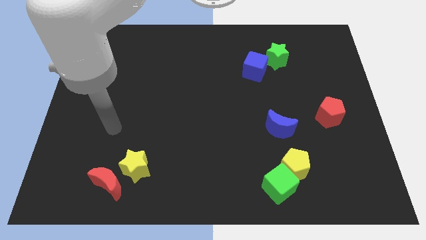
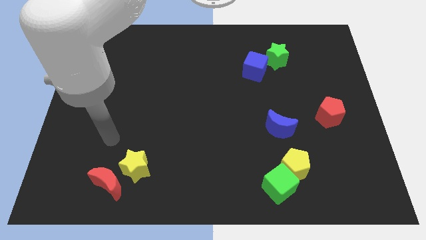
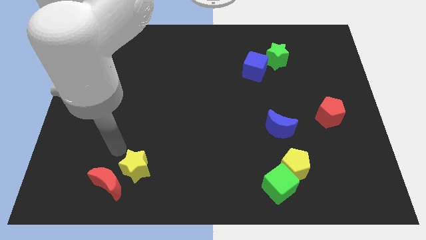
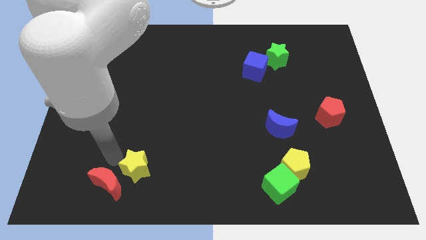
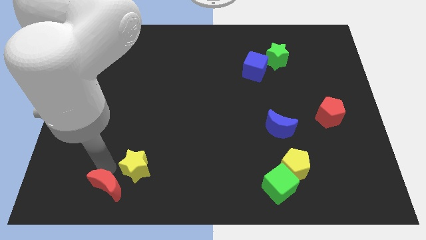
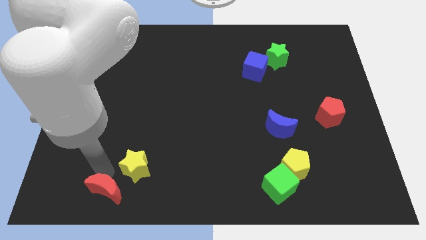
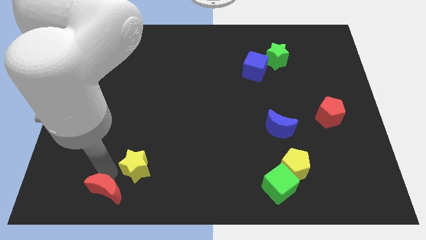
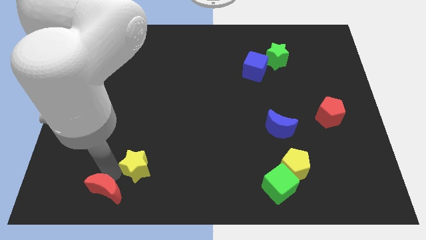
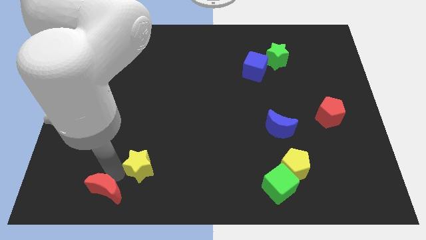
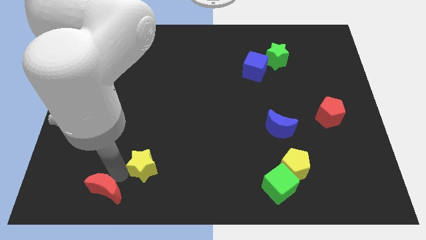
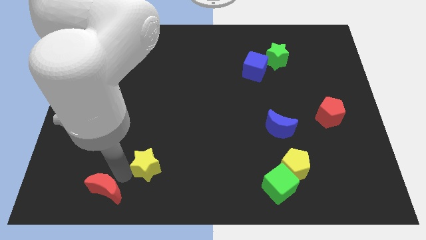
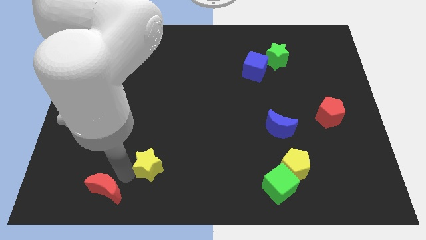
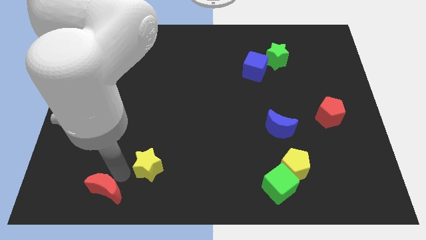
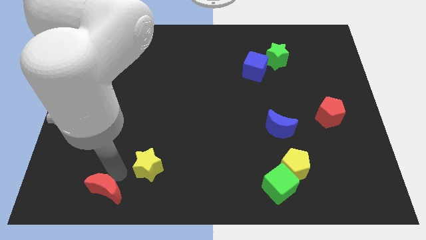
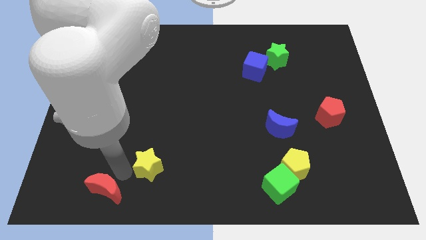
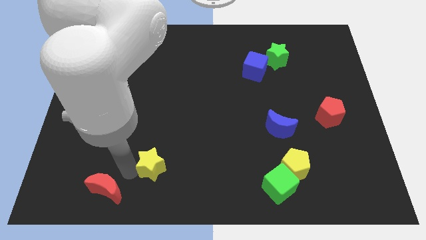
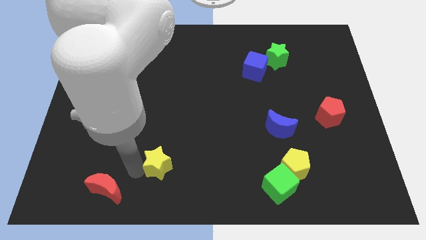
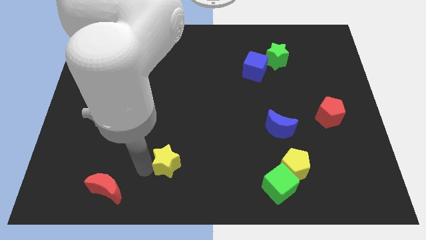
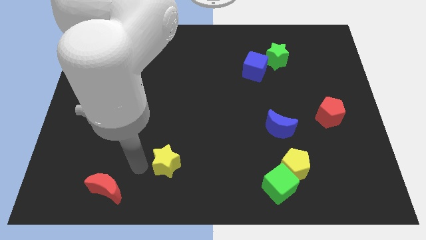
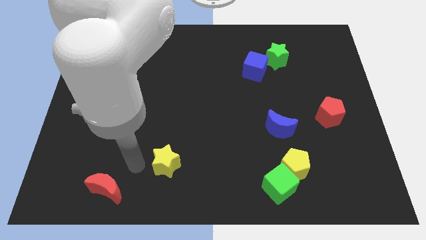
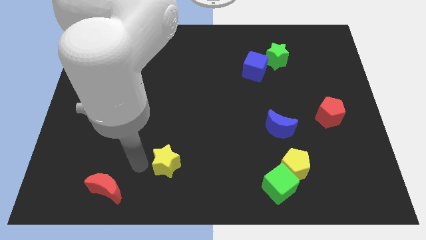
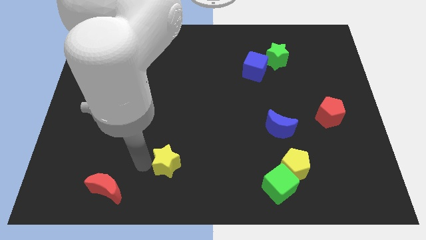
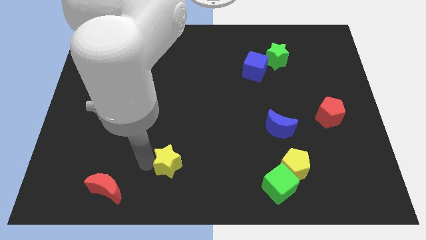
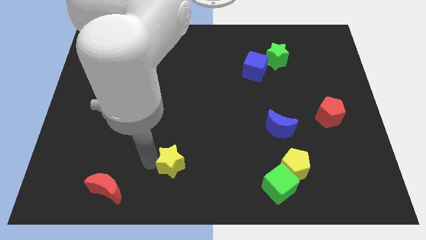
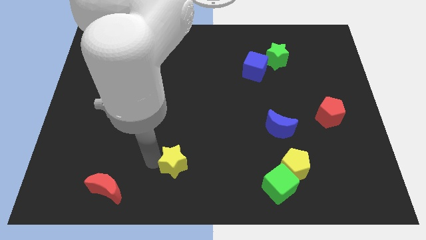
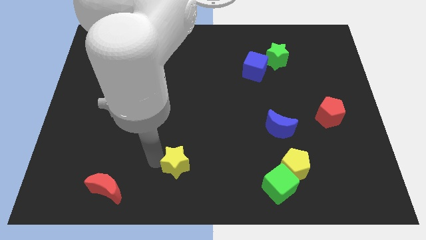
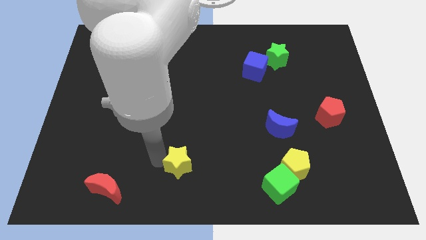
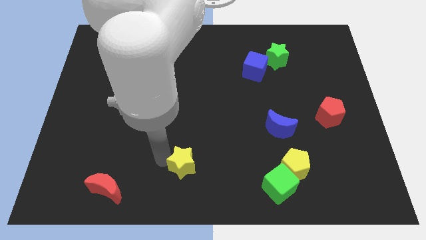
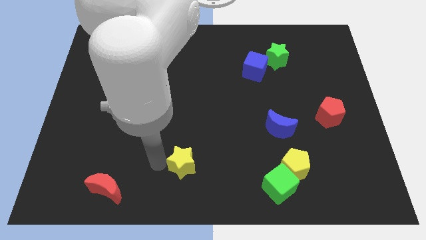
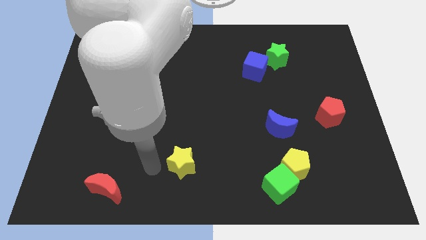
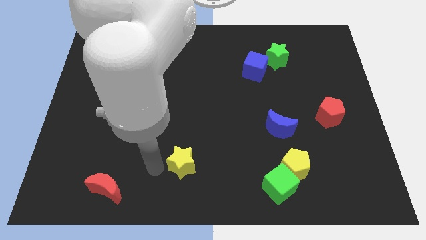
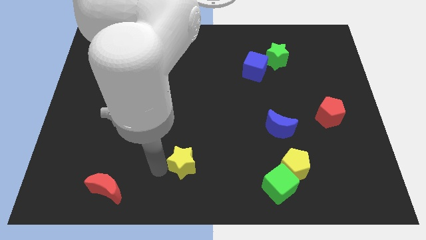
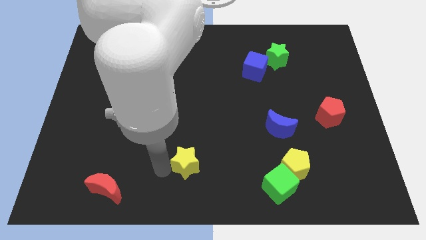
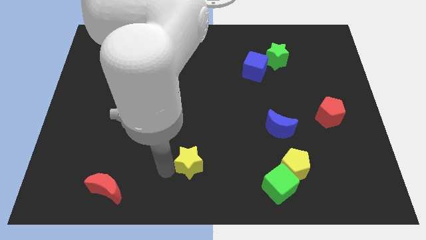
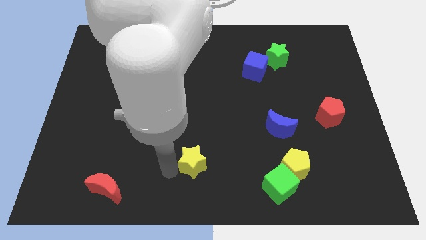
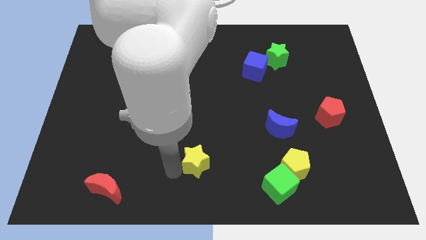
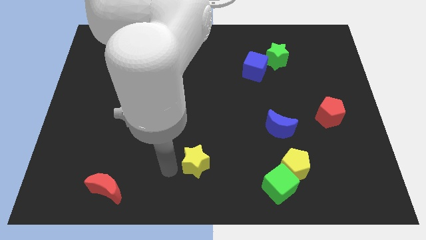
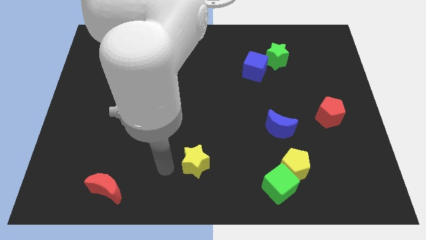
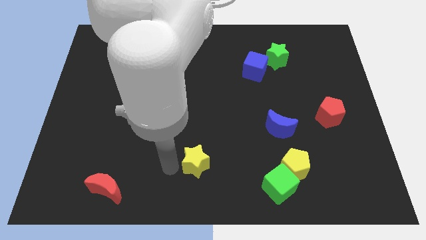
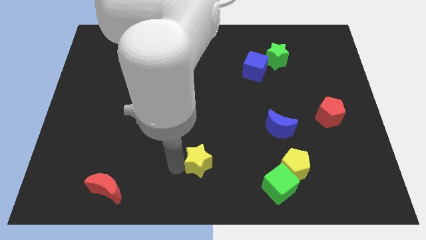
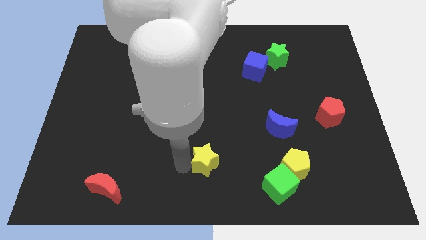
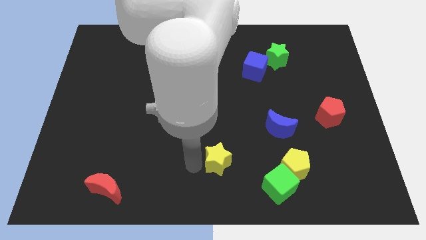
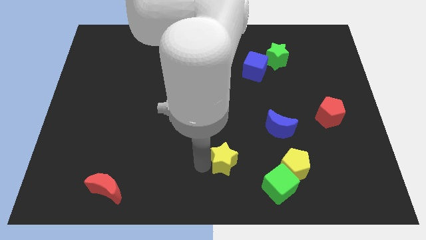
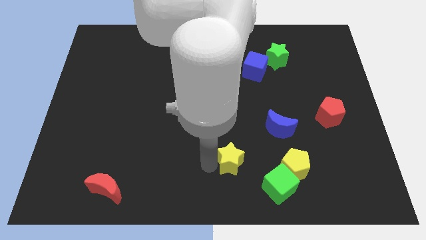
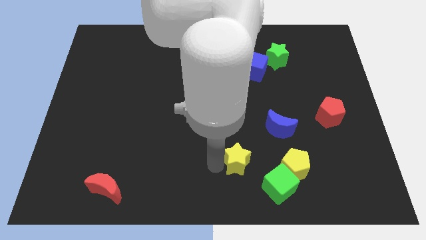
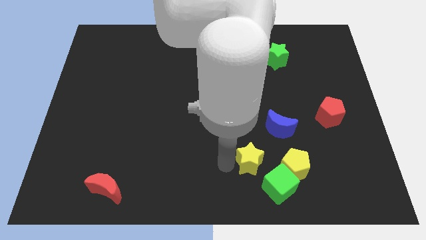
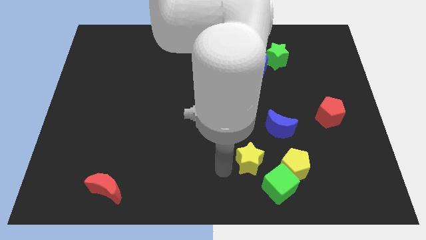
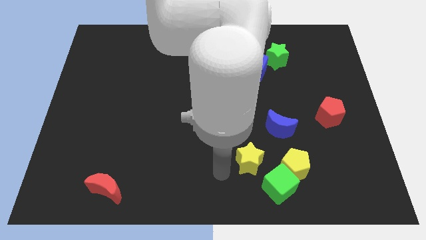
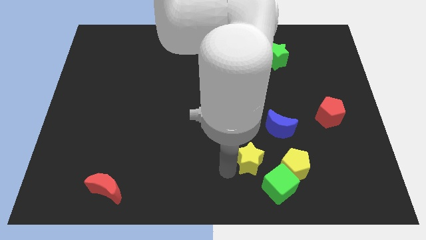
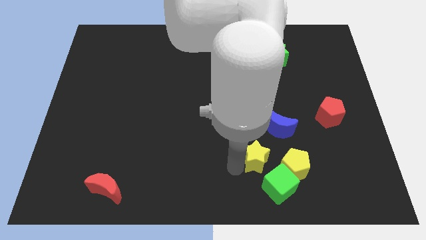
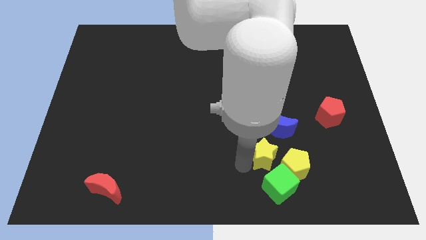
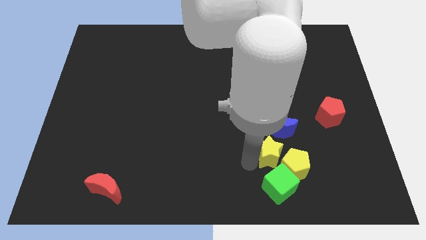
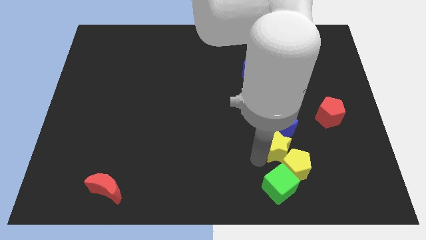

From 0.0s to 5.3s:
put the yellow star to the bottom right side of the blue moon

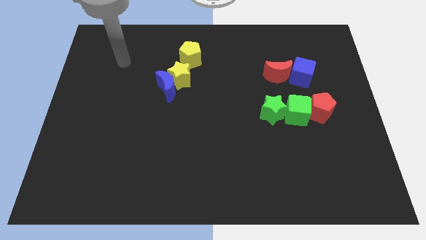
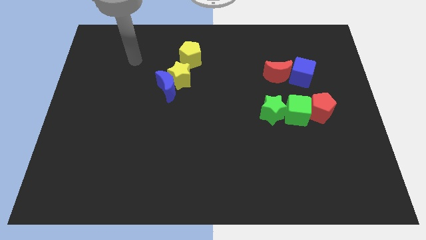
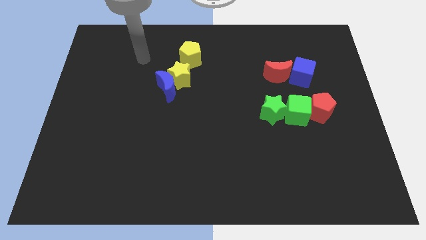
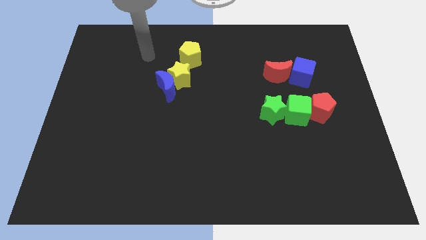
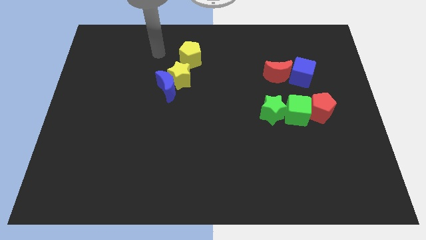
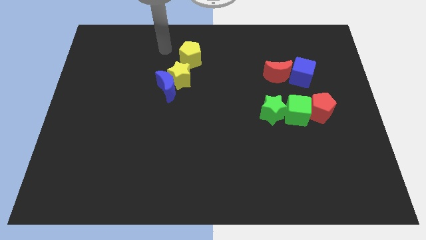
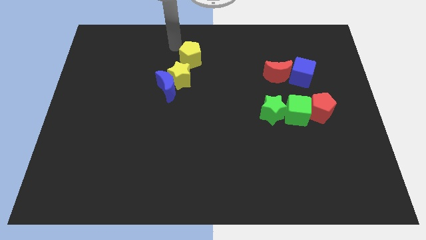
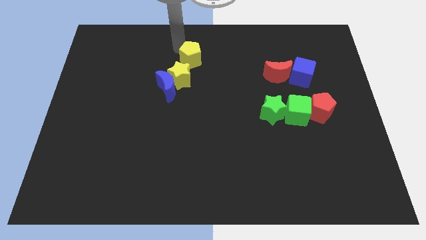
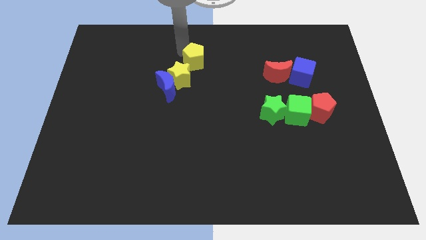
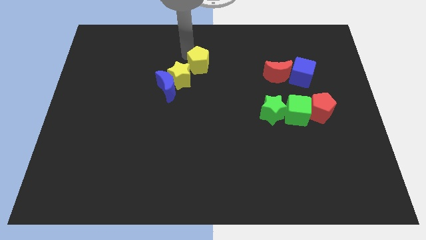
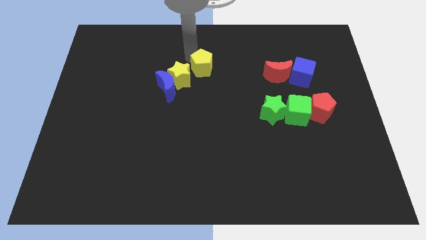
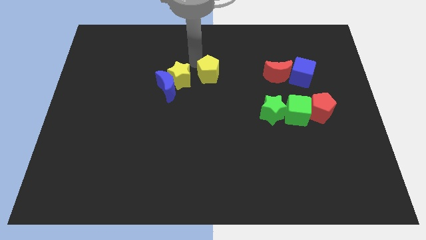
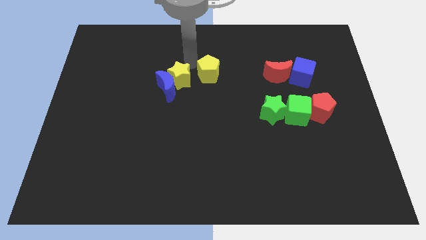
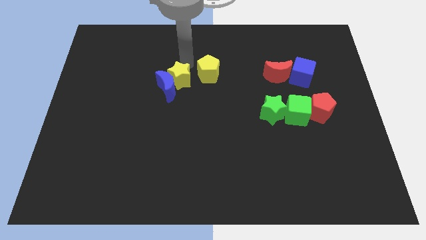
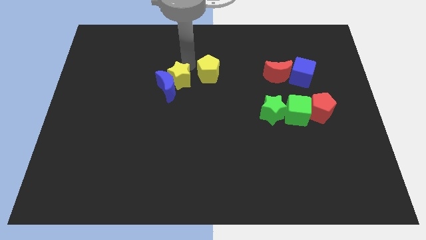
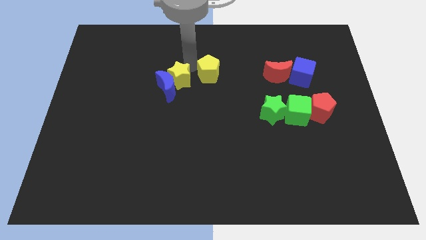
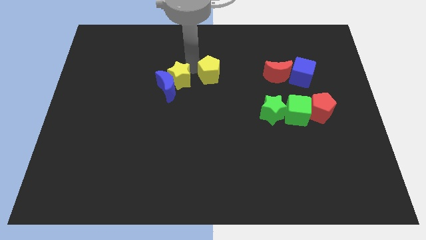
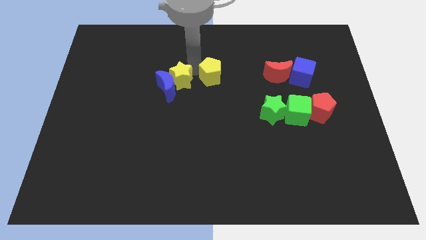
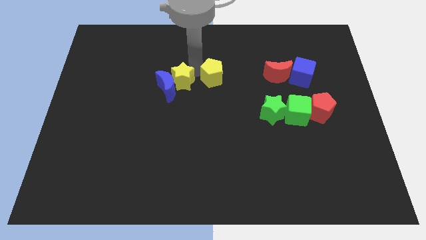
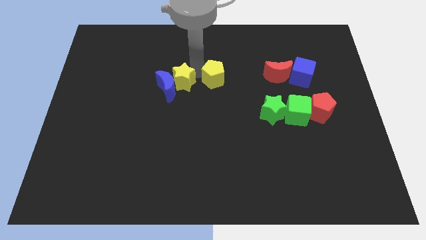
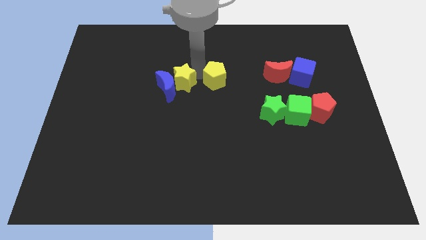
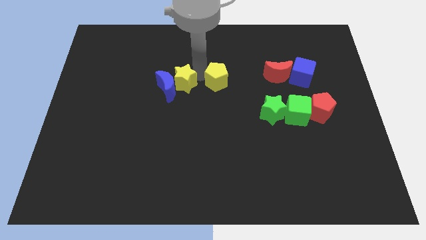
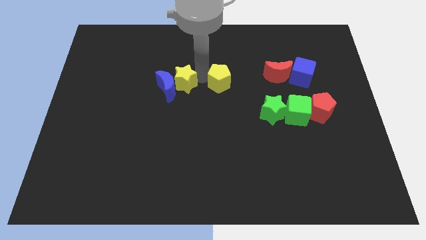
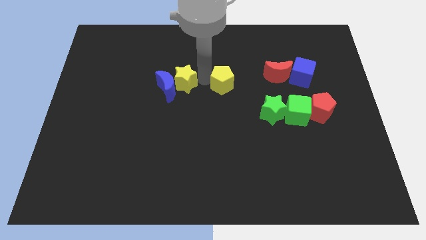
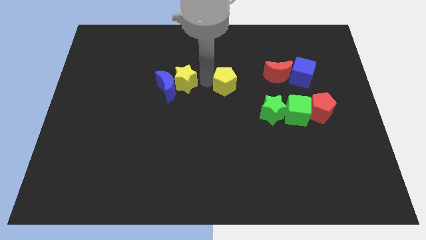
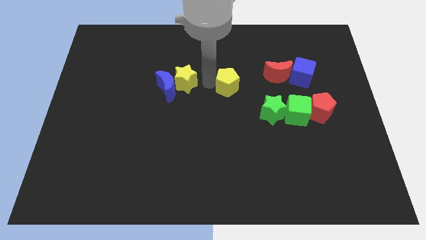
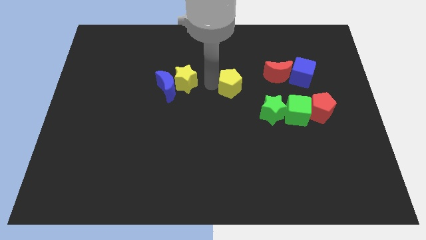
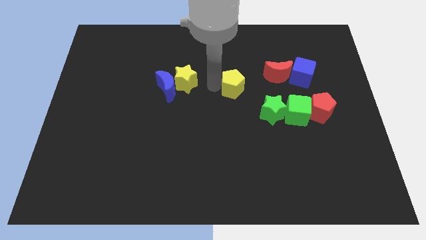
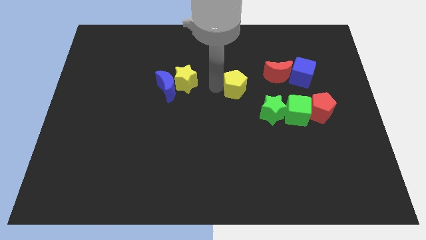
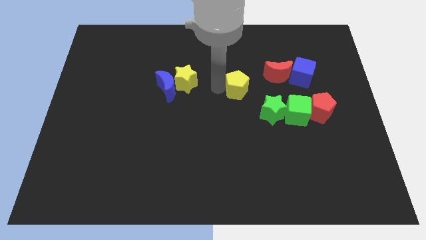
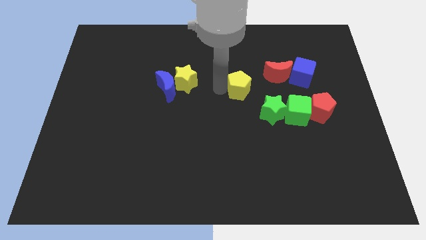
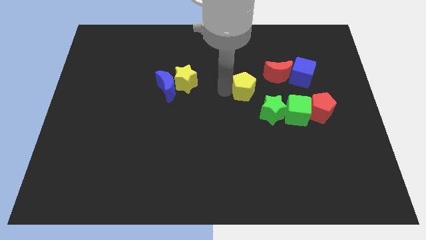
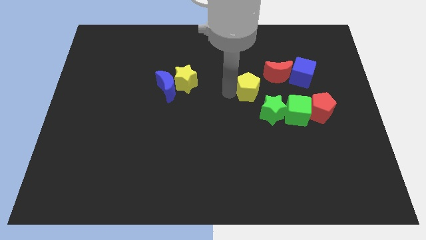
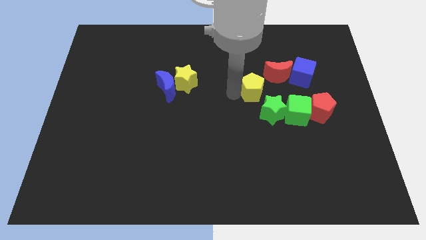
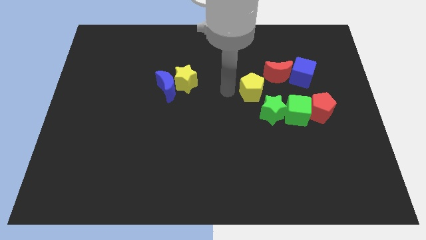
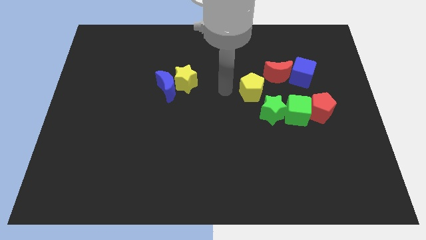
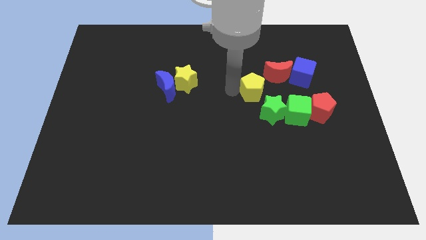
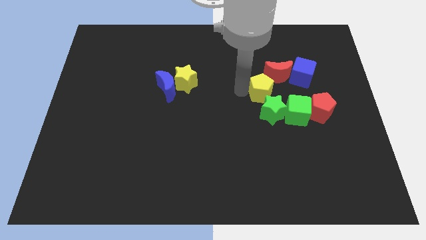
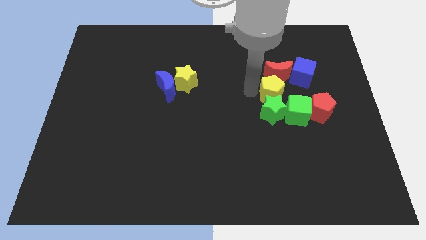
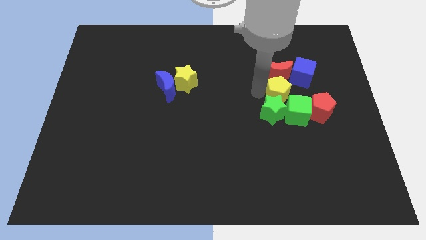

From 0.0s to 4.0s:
put the yellow pentagon to the top left side of the red pentagon
